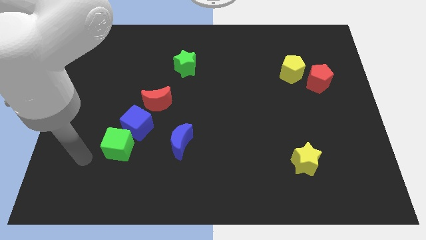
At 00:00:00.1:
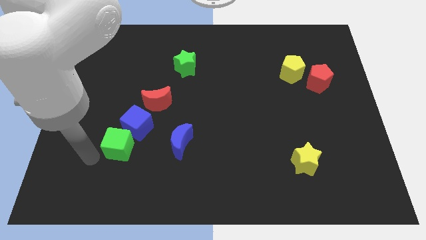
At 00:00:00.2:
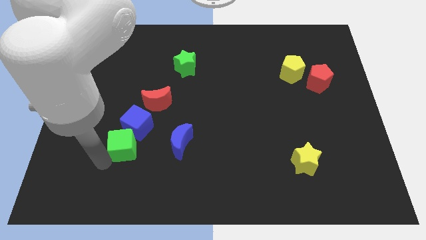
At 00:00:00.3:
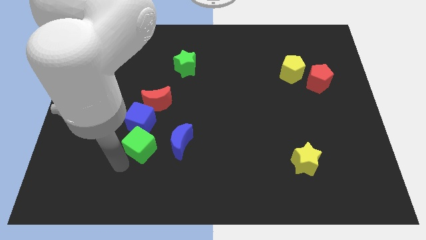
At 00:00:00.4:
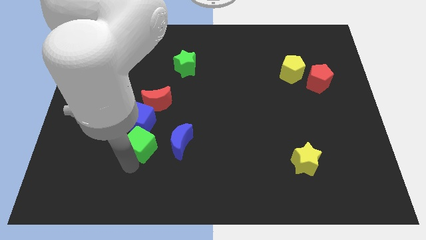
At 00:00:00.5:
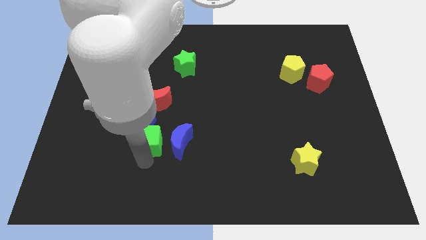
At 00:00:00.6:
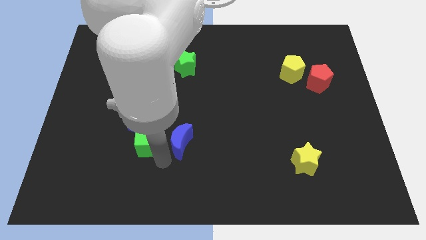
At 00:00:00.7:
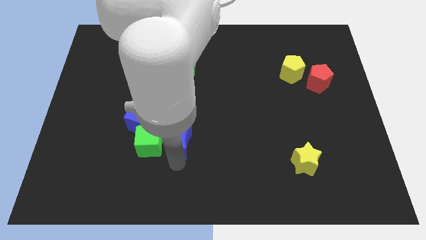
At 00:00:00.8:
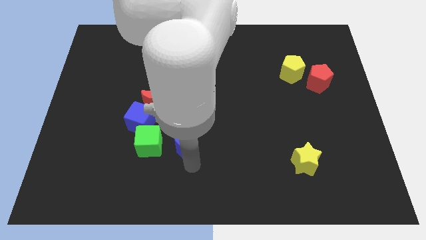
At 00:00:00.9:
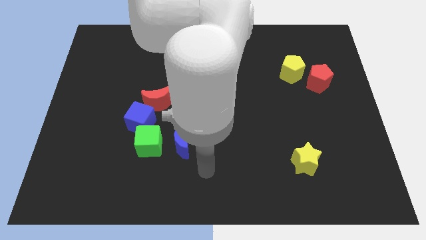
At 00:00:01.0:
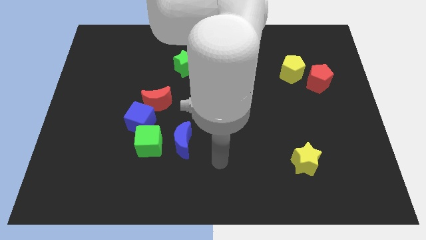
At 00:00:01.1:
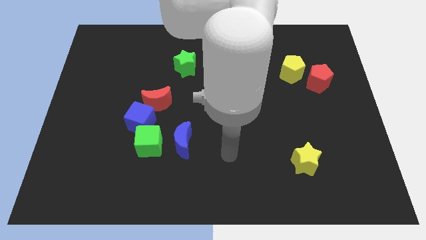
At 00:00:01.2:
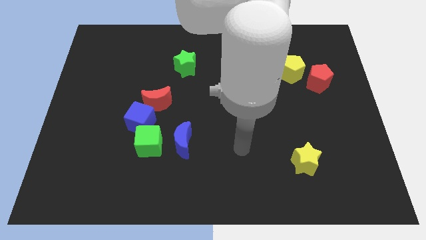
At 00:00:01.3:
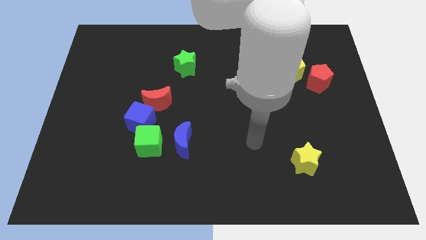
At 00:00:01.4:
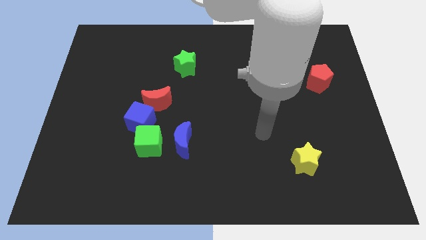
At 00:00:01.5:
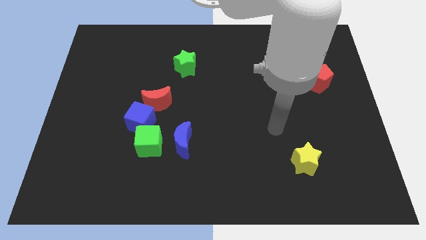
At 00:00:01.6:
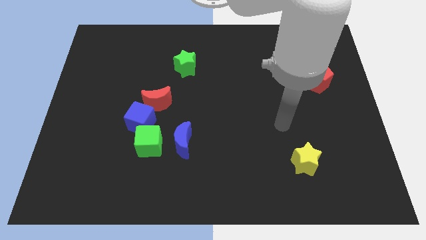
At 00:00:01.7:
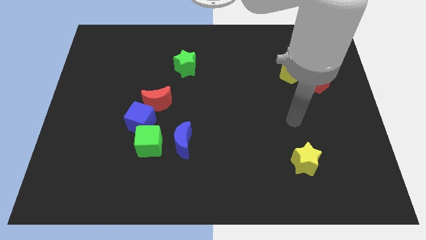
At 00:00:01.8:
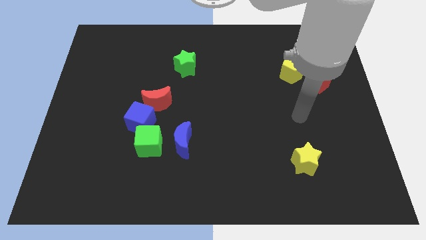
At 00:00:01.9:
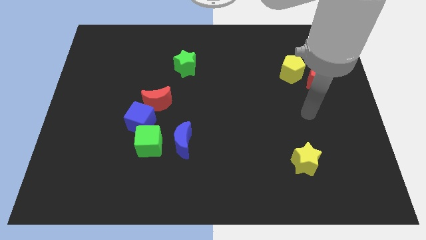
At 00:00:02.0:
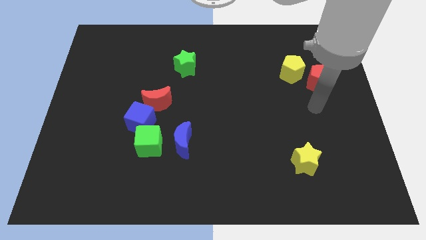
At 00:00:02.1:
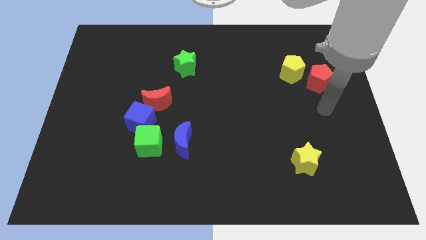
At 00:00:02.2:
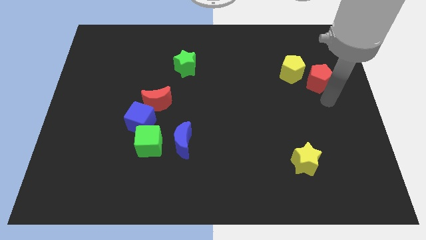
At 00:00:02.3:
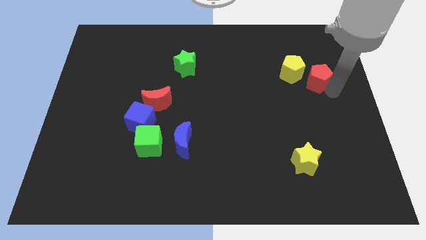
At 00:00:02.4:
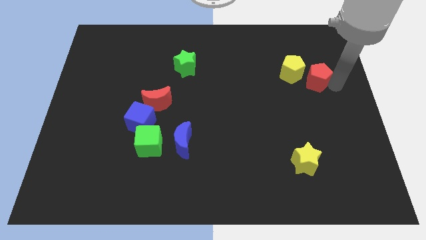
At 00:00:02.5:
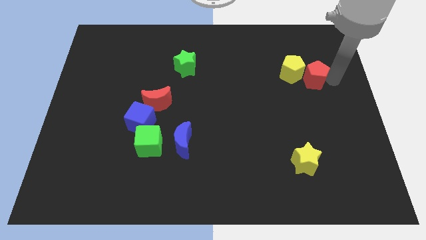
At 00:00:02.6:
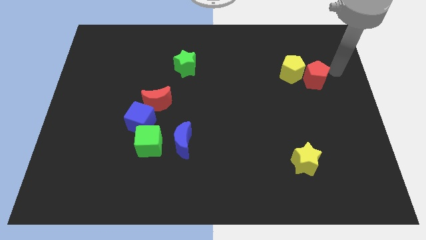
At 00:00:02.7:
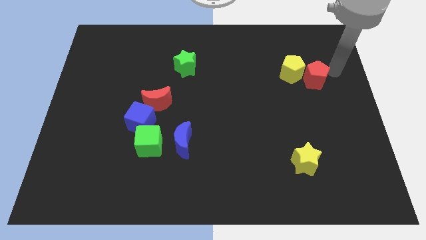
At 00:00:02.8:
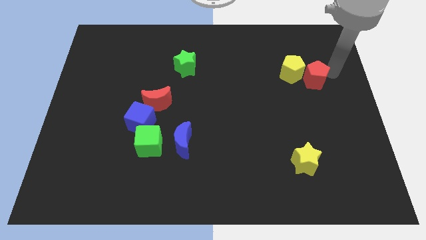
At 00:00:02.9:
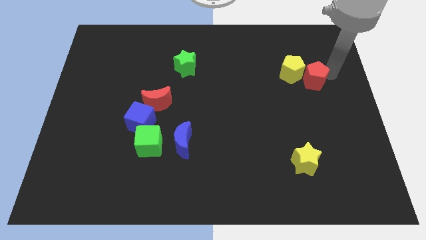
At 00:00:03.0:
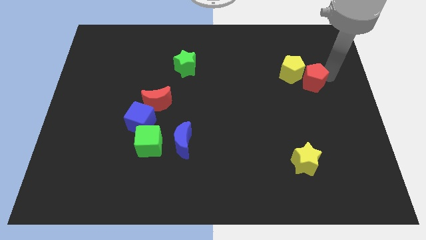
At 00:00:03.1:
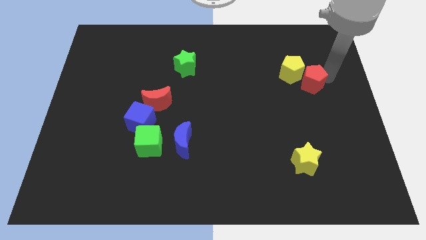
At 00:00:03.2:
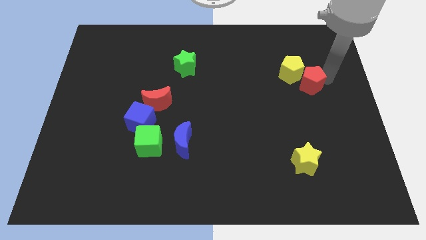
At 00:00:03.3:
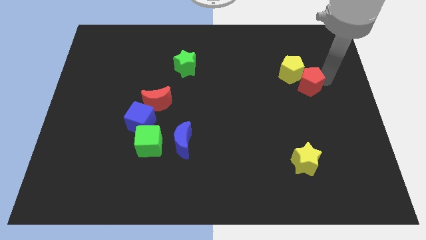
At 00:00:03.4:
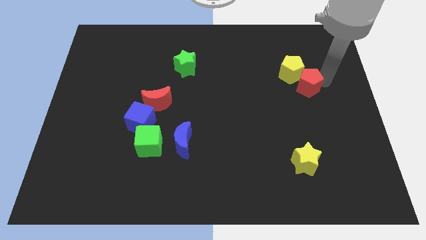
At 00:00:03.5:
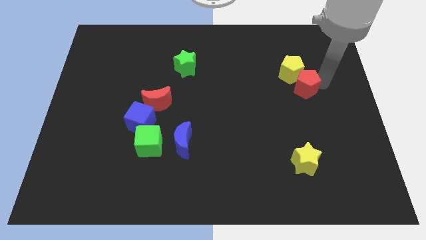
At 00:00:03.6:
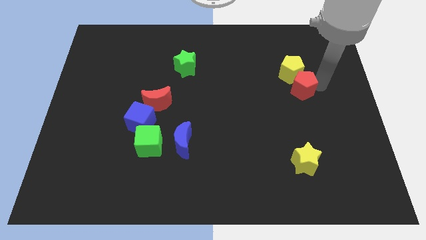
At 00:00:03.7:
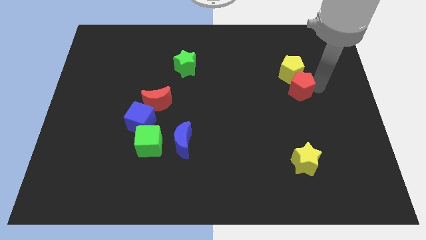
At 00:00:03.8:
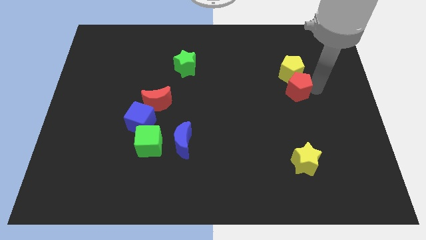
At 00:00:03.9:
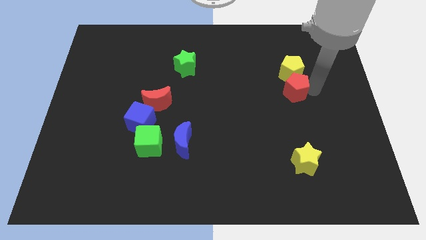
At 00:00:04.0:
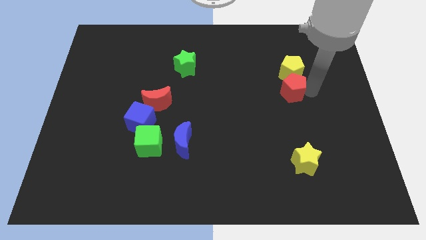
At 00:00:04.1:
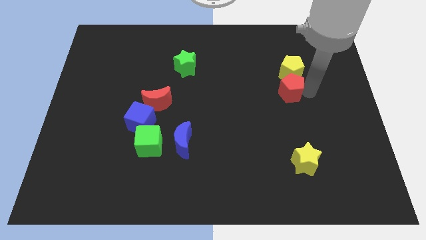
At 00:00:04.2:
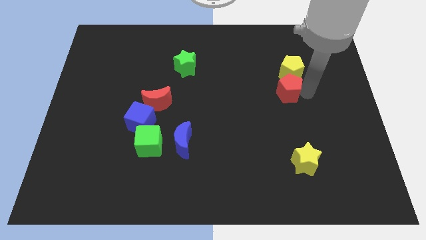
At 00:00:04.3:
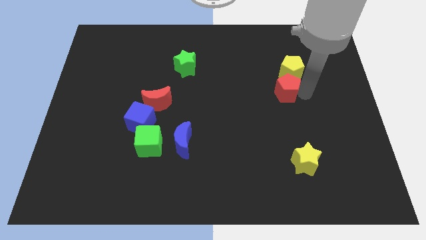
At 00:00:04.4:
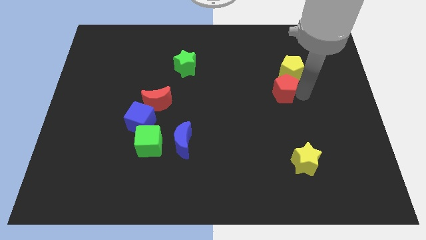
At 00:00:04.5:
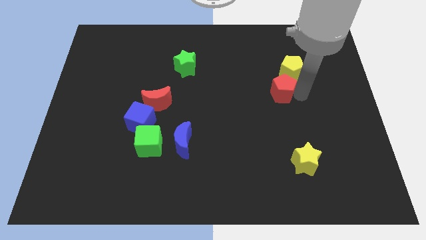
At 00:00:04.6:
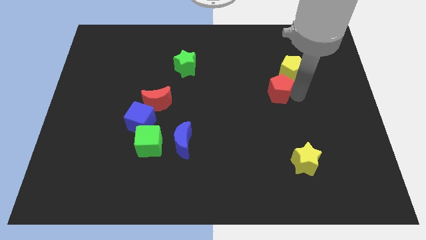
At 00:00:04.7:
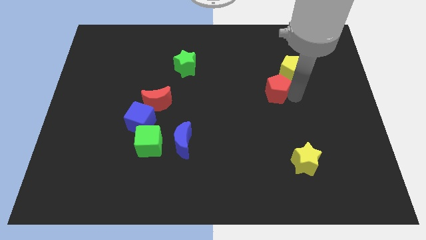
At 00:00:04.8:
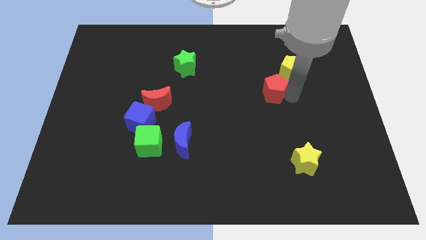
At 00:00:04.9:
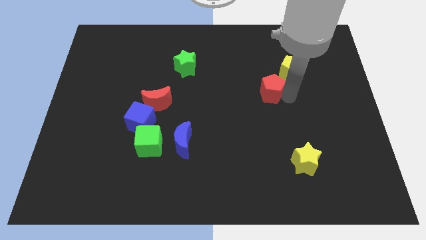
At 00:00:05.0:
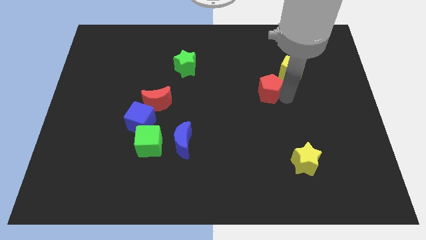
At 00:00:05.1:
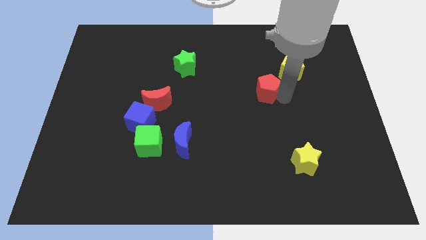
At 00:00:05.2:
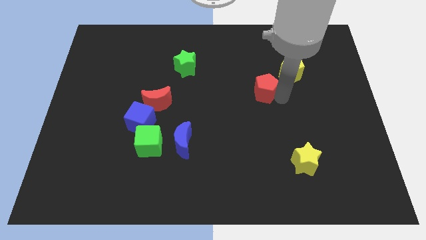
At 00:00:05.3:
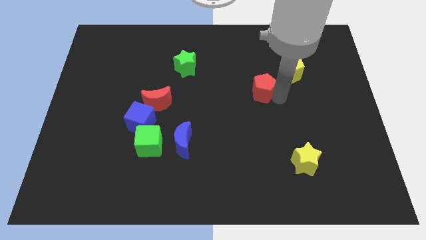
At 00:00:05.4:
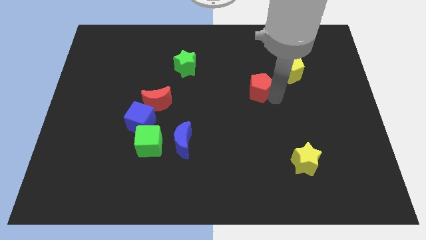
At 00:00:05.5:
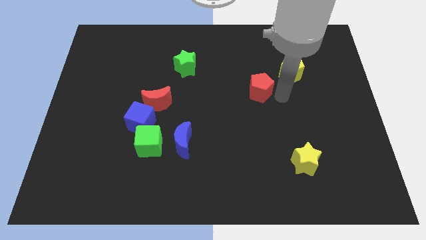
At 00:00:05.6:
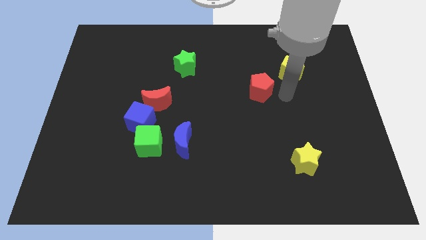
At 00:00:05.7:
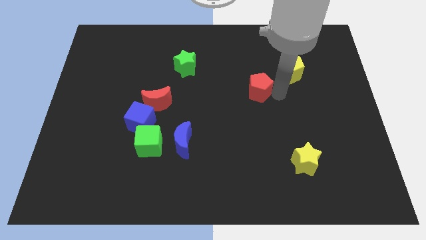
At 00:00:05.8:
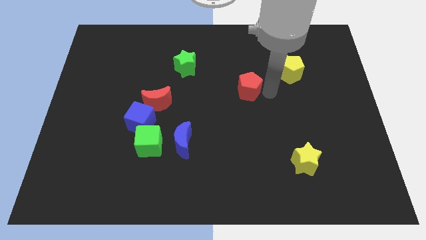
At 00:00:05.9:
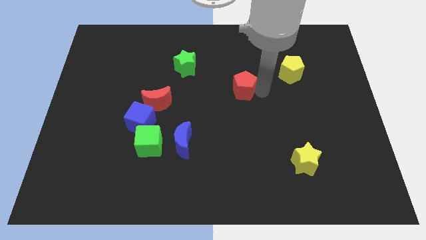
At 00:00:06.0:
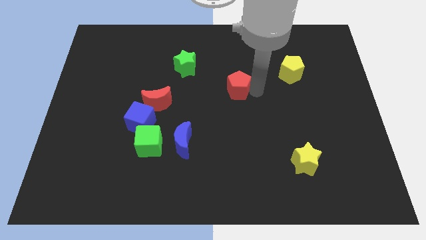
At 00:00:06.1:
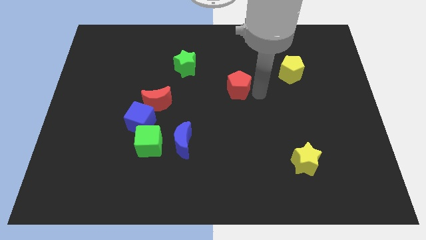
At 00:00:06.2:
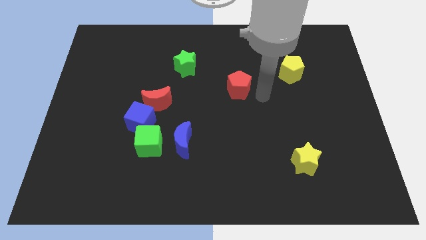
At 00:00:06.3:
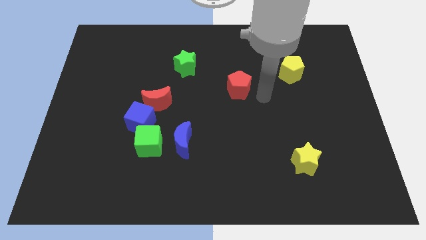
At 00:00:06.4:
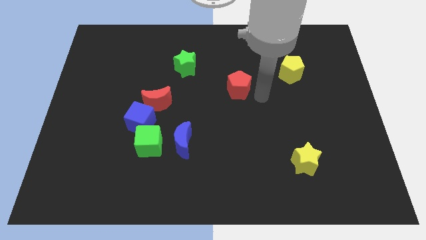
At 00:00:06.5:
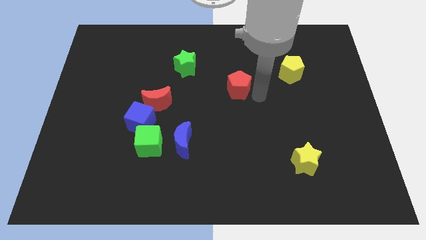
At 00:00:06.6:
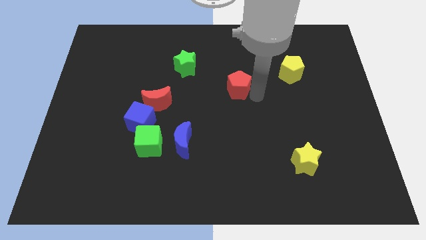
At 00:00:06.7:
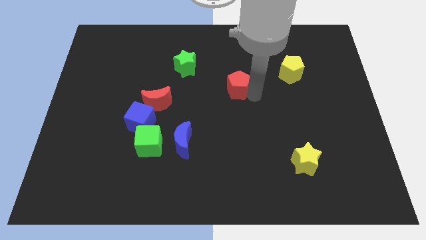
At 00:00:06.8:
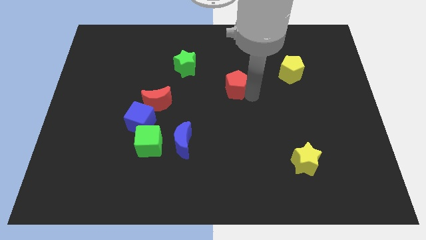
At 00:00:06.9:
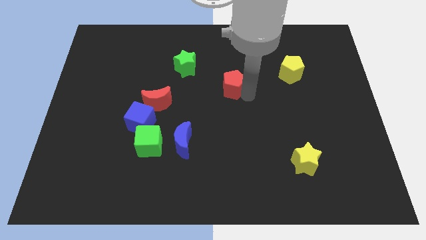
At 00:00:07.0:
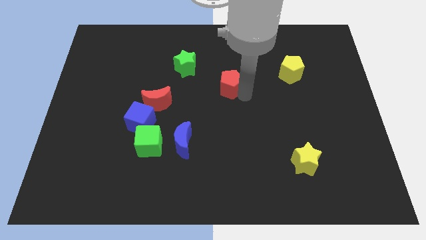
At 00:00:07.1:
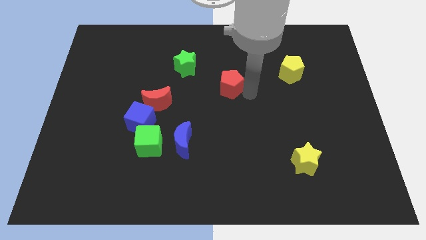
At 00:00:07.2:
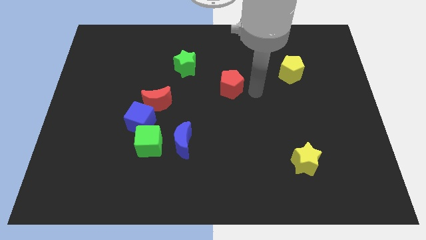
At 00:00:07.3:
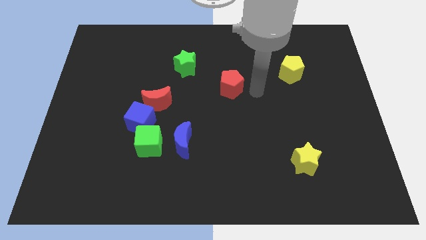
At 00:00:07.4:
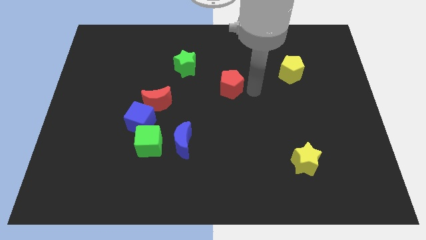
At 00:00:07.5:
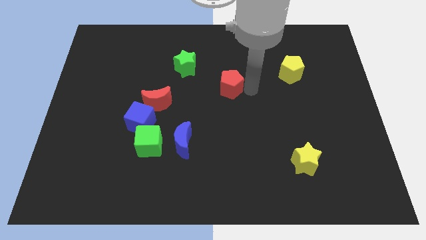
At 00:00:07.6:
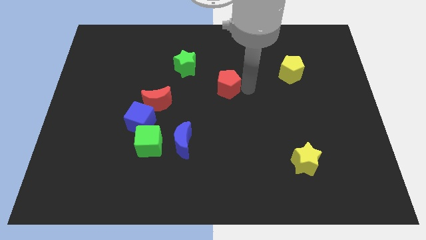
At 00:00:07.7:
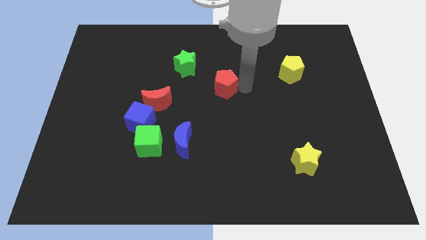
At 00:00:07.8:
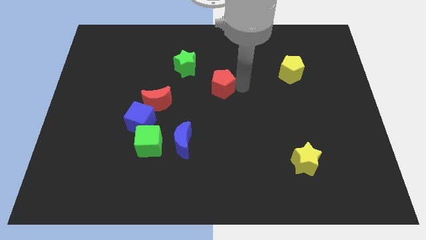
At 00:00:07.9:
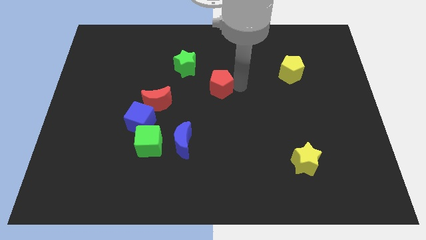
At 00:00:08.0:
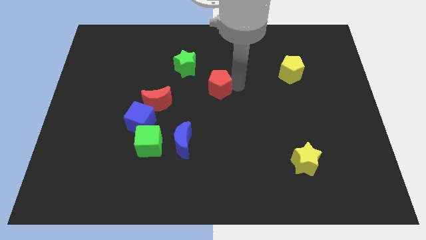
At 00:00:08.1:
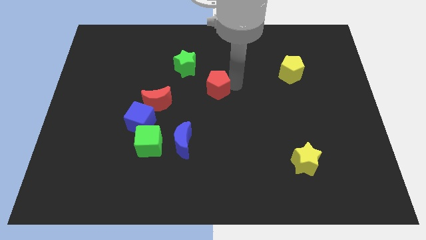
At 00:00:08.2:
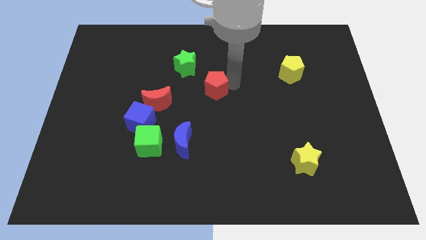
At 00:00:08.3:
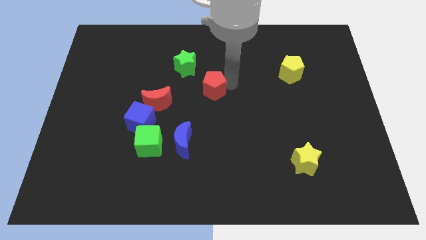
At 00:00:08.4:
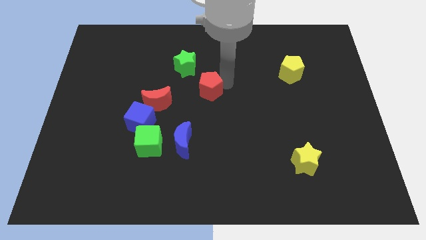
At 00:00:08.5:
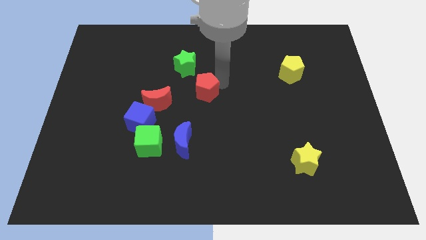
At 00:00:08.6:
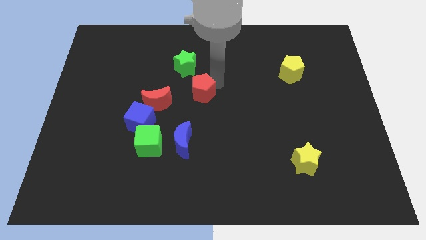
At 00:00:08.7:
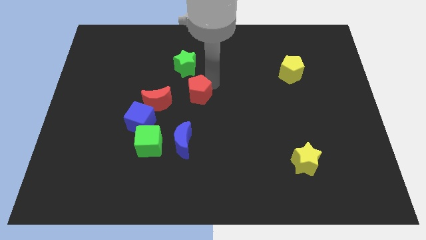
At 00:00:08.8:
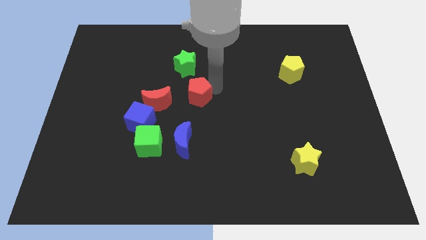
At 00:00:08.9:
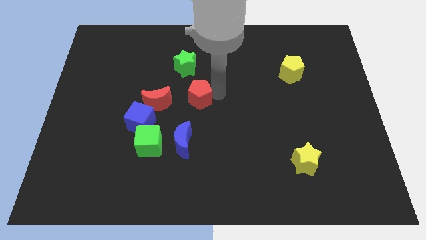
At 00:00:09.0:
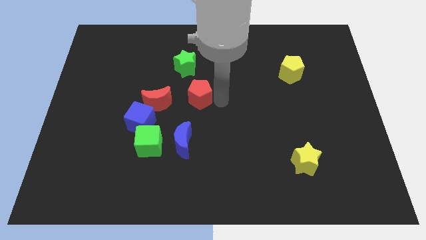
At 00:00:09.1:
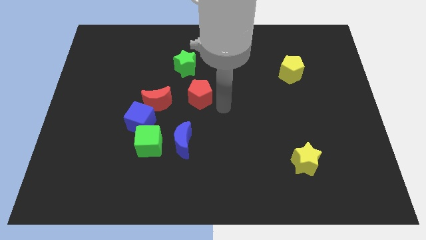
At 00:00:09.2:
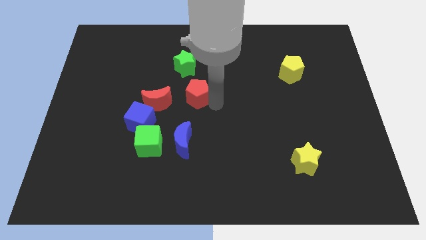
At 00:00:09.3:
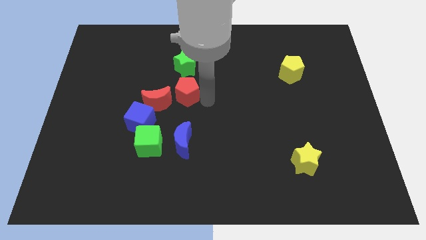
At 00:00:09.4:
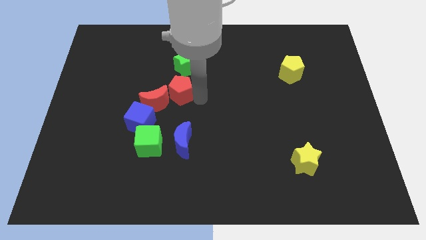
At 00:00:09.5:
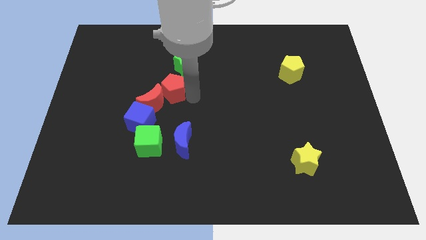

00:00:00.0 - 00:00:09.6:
put the red pentagon to the bottom left of the green star
